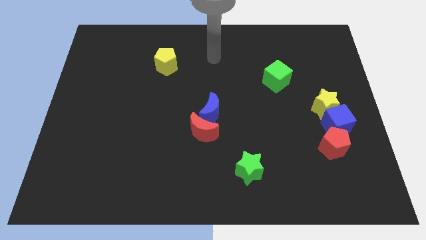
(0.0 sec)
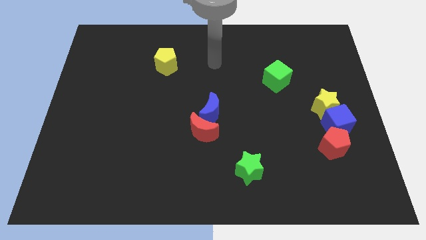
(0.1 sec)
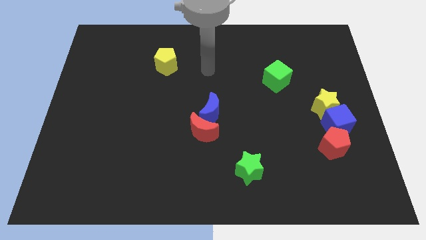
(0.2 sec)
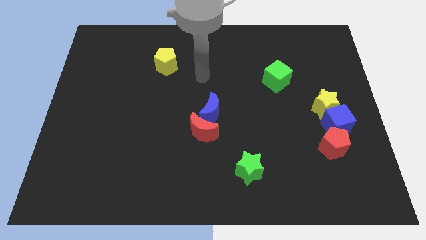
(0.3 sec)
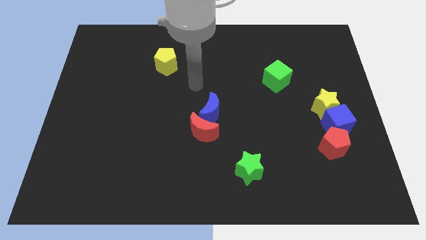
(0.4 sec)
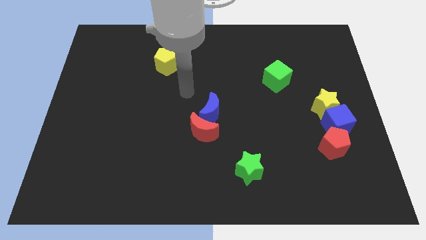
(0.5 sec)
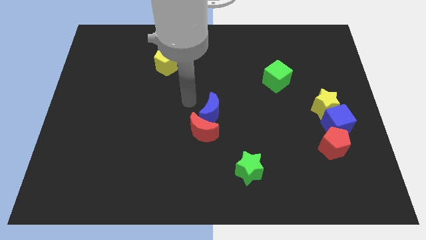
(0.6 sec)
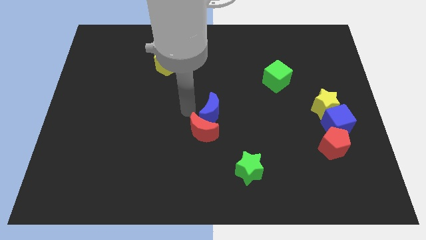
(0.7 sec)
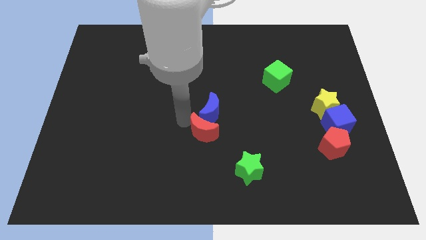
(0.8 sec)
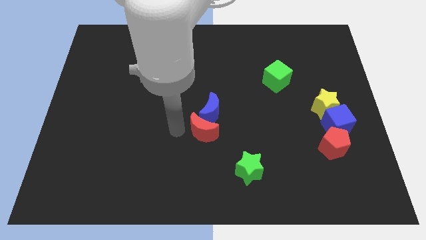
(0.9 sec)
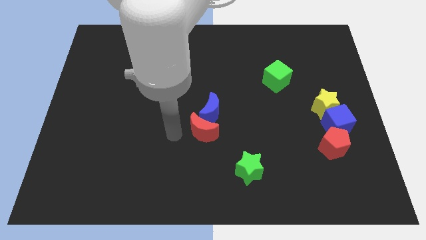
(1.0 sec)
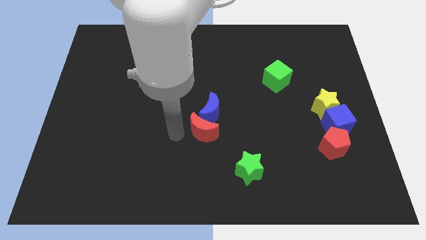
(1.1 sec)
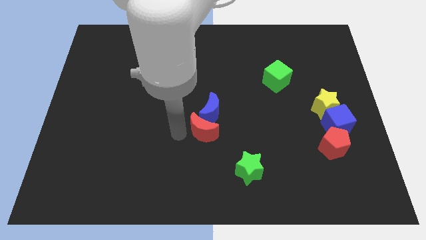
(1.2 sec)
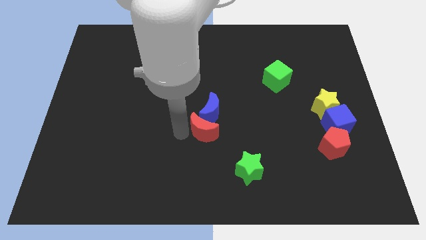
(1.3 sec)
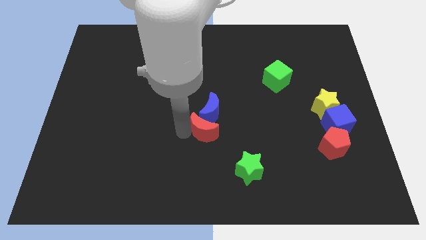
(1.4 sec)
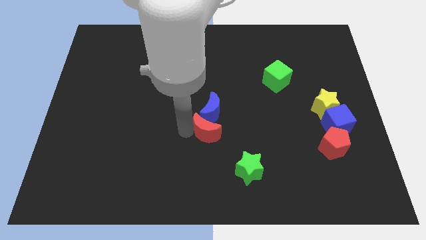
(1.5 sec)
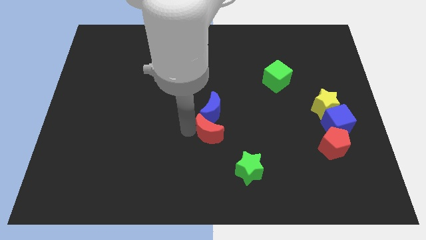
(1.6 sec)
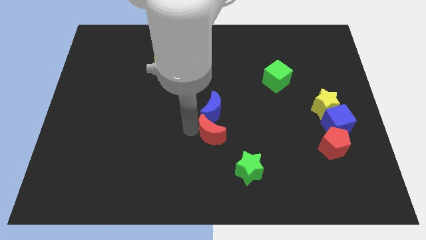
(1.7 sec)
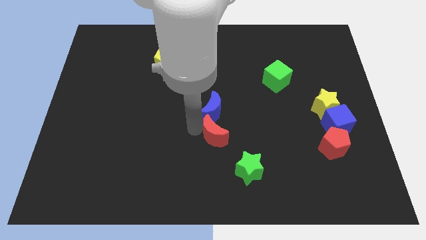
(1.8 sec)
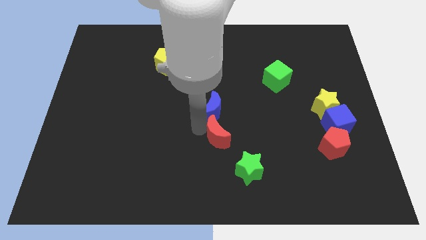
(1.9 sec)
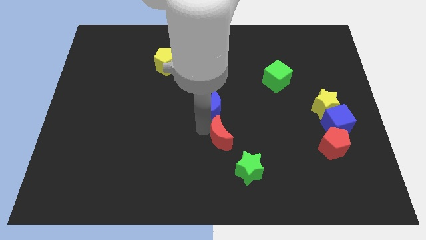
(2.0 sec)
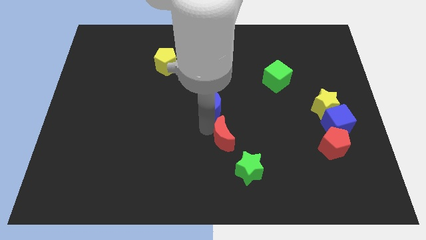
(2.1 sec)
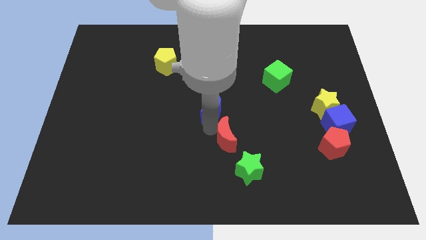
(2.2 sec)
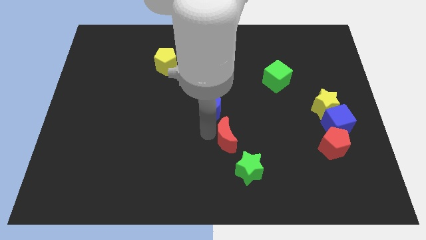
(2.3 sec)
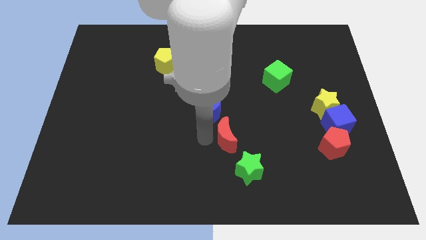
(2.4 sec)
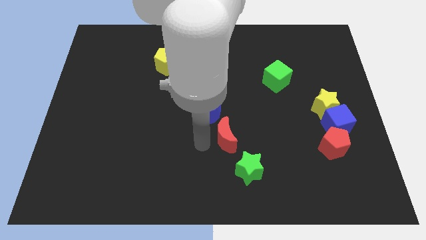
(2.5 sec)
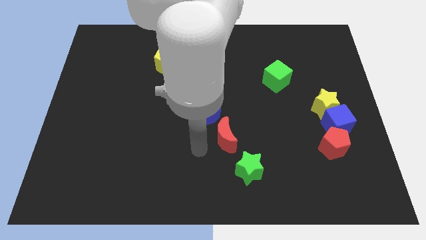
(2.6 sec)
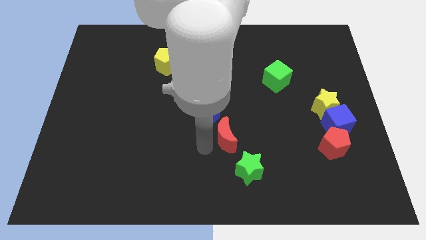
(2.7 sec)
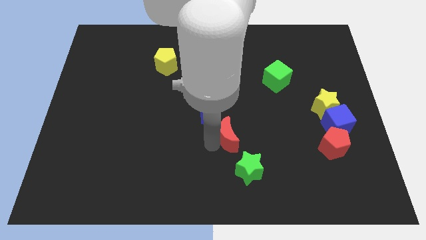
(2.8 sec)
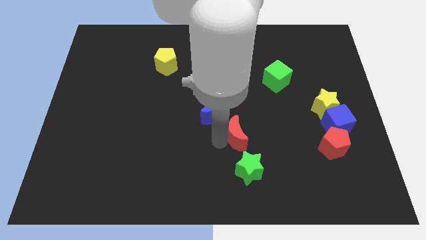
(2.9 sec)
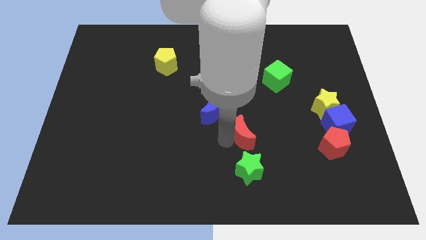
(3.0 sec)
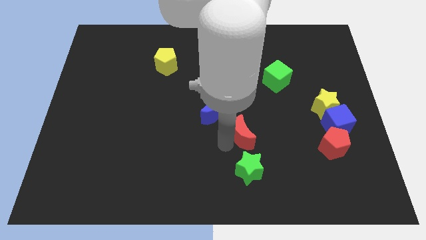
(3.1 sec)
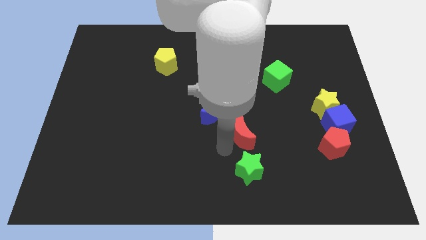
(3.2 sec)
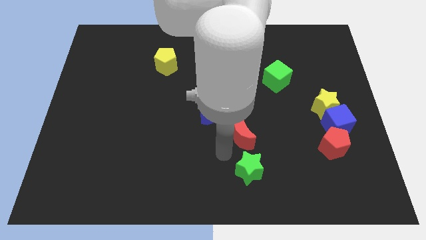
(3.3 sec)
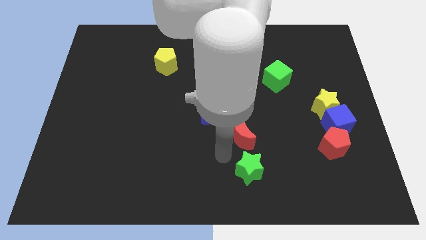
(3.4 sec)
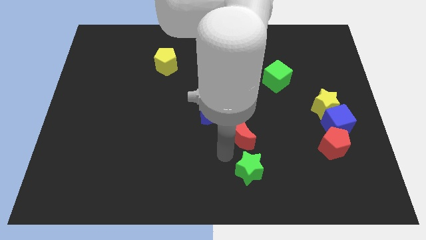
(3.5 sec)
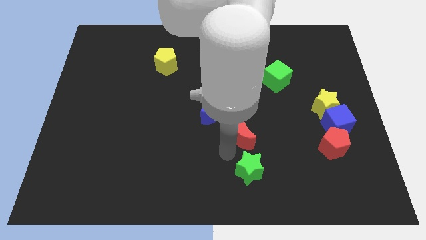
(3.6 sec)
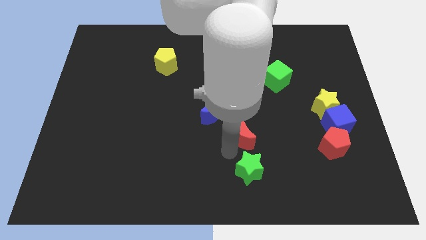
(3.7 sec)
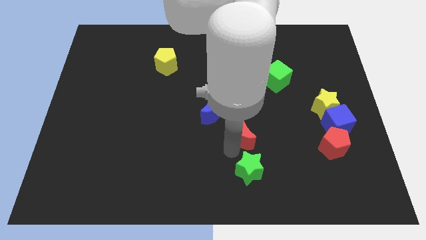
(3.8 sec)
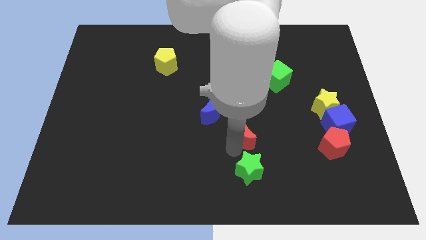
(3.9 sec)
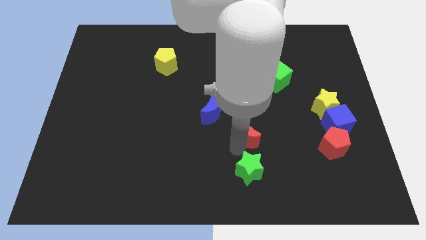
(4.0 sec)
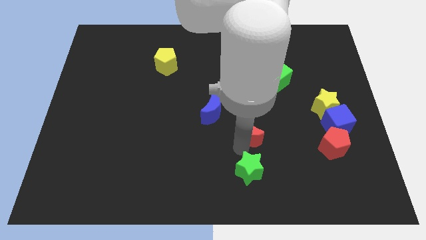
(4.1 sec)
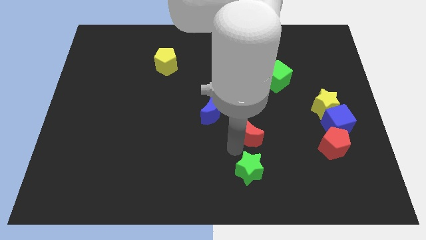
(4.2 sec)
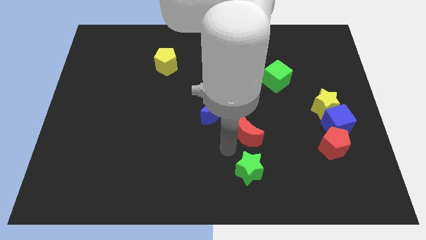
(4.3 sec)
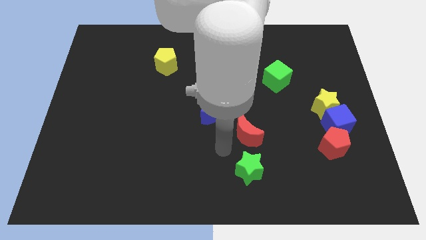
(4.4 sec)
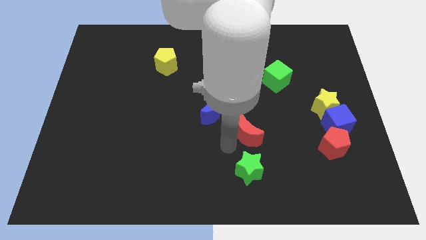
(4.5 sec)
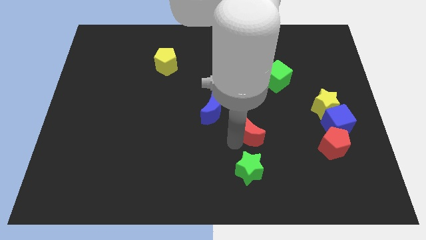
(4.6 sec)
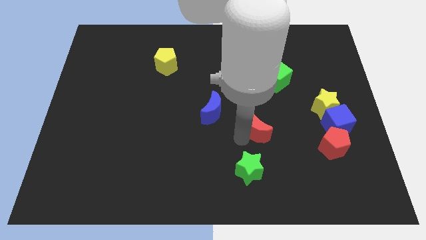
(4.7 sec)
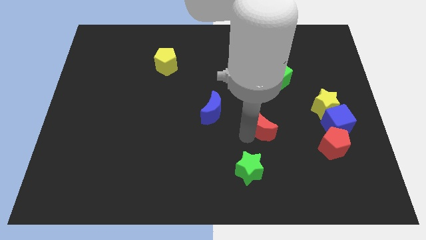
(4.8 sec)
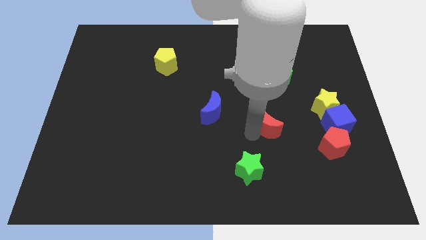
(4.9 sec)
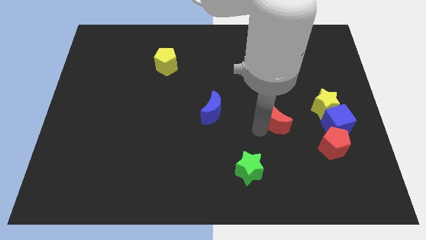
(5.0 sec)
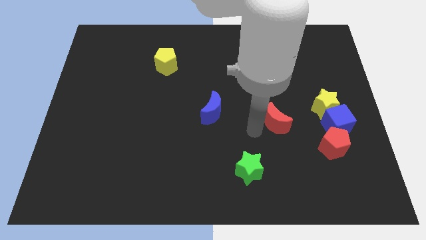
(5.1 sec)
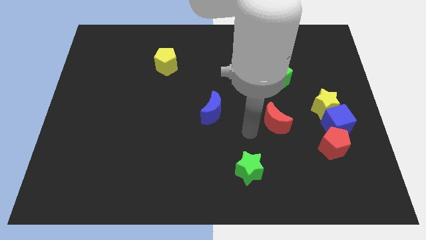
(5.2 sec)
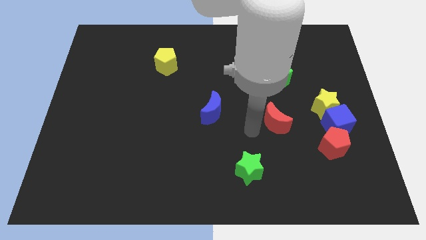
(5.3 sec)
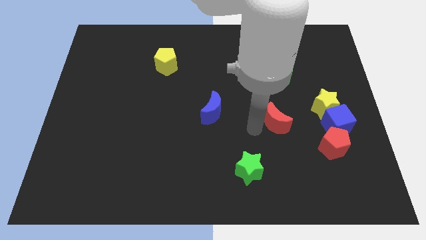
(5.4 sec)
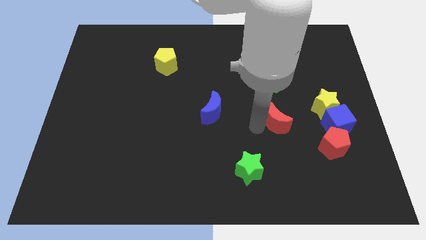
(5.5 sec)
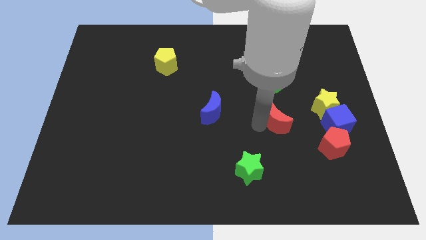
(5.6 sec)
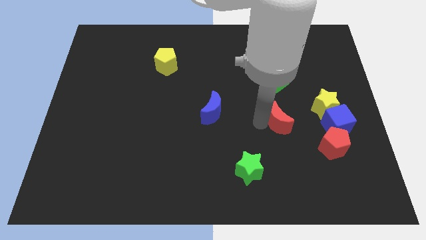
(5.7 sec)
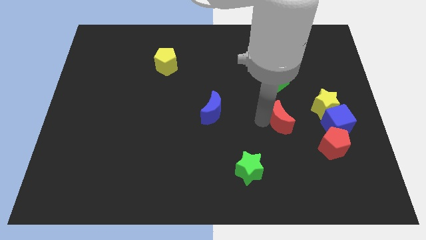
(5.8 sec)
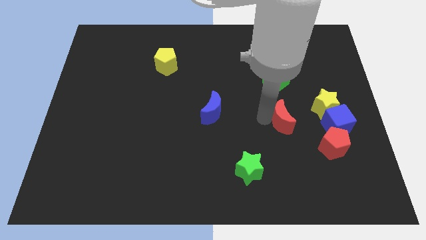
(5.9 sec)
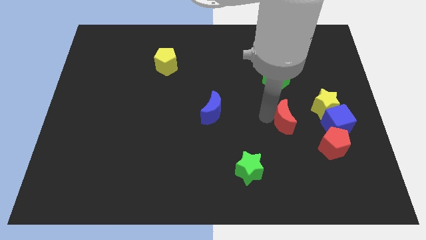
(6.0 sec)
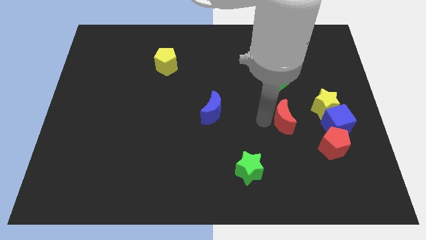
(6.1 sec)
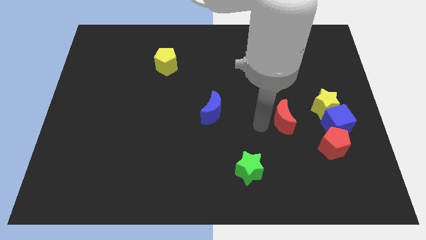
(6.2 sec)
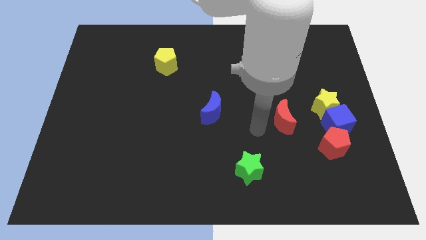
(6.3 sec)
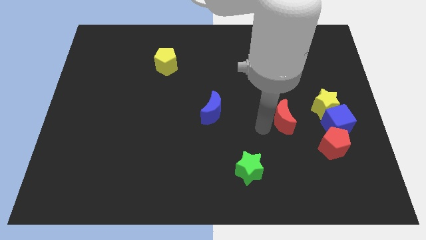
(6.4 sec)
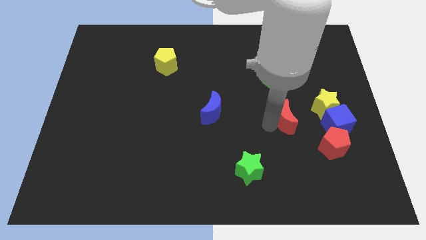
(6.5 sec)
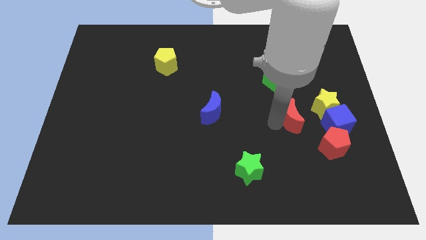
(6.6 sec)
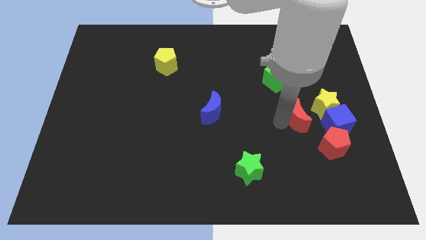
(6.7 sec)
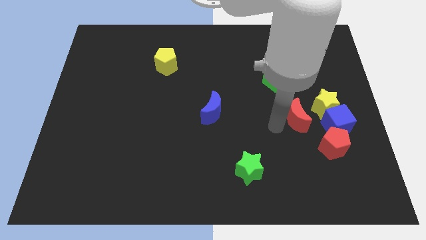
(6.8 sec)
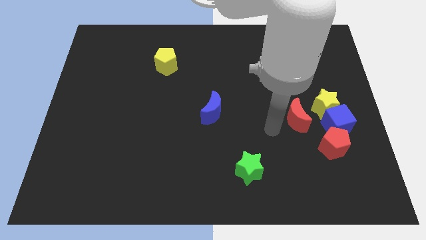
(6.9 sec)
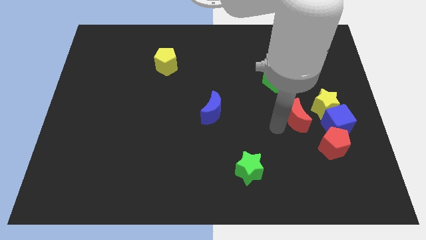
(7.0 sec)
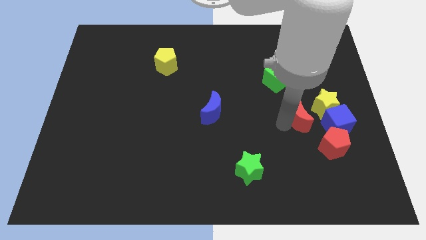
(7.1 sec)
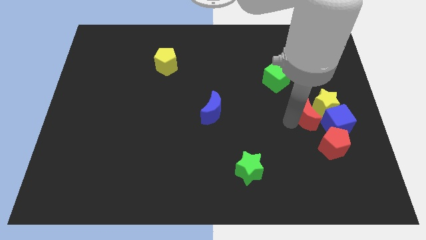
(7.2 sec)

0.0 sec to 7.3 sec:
slide the red moon to the yellow star
